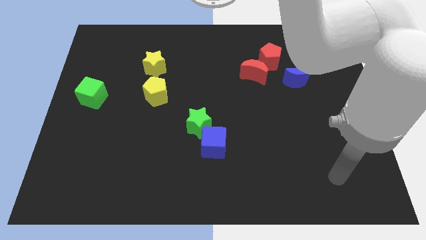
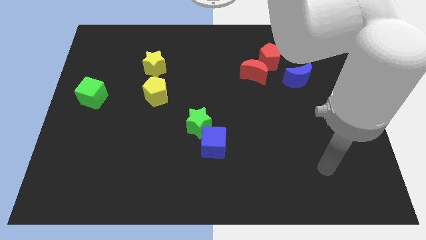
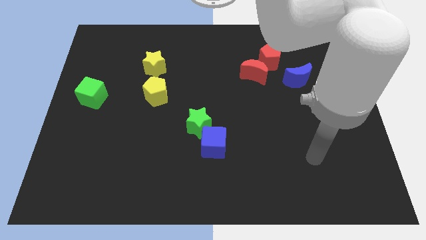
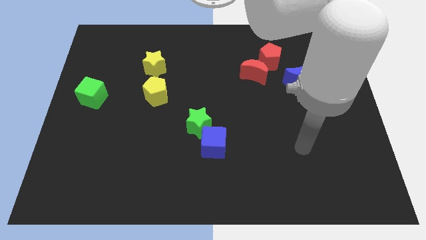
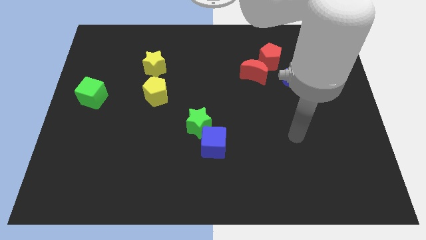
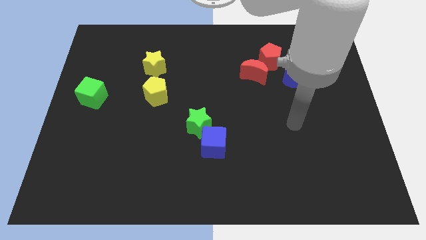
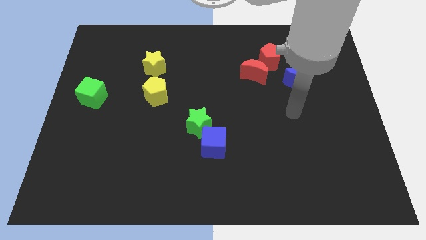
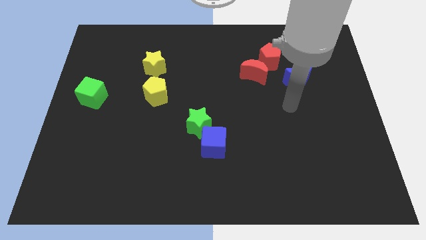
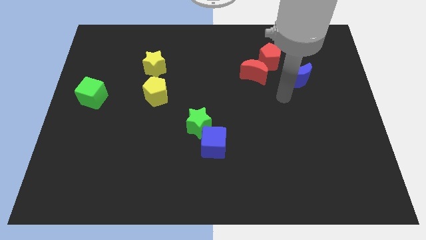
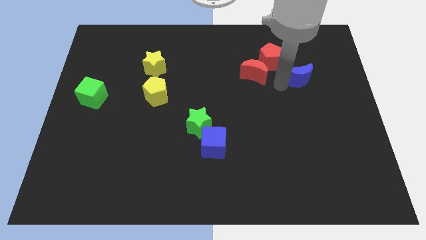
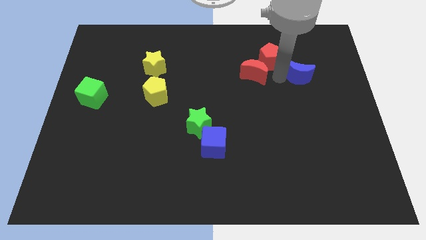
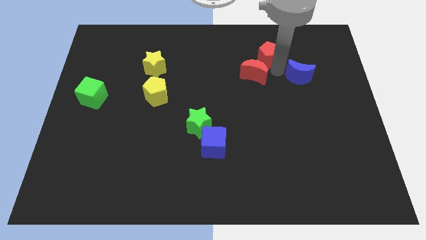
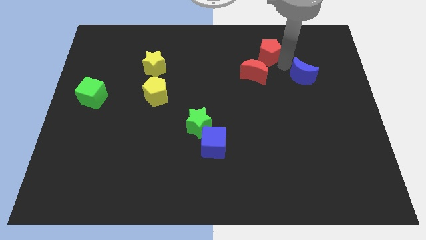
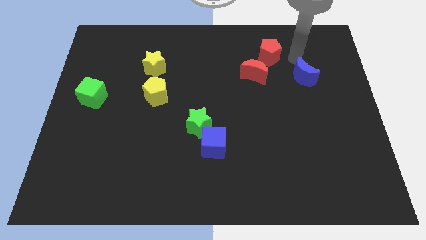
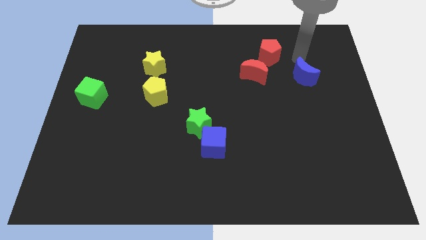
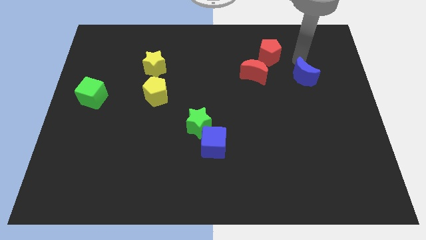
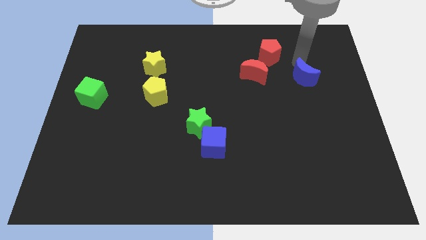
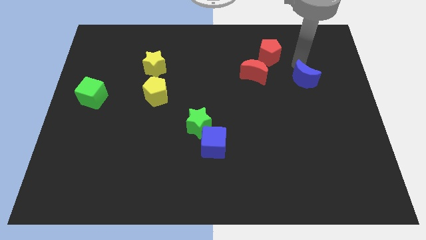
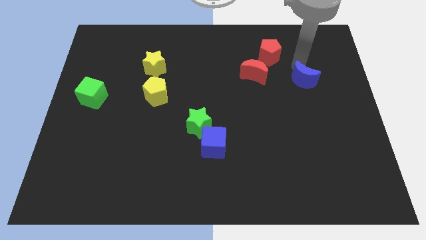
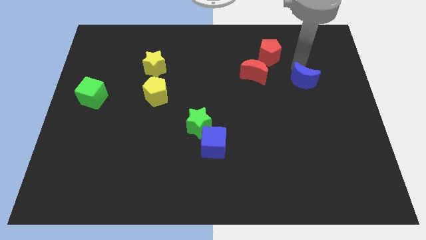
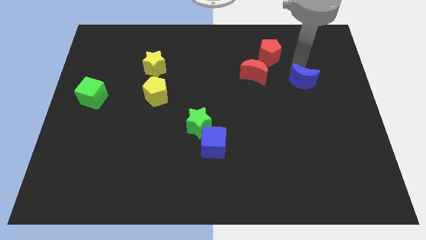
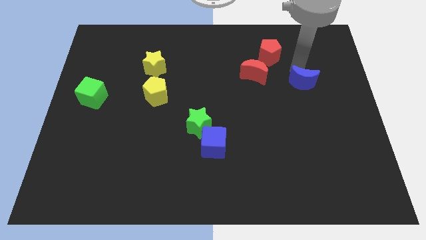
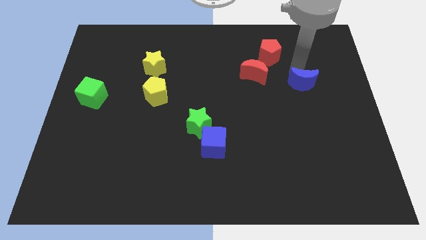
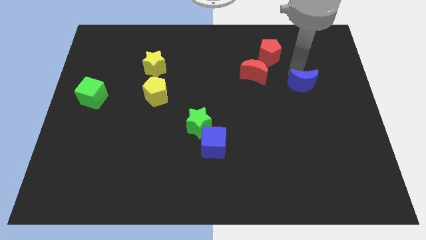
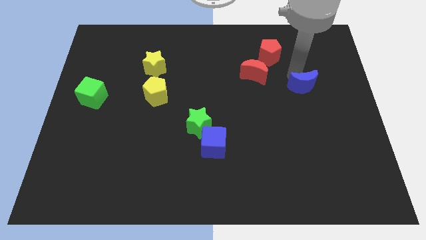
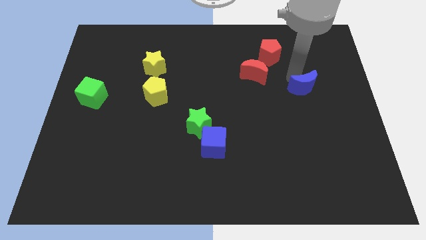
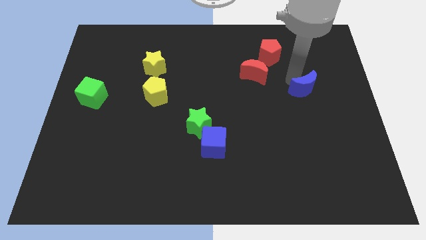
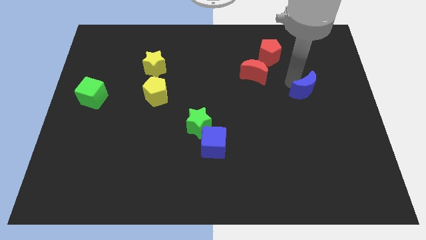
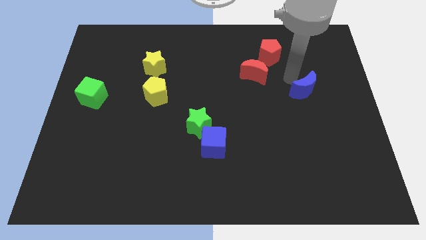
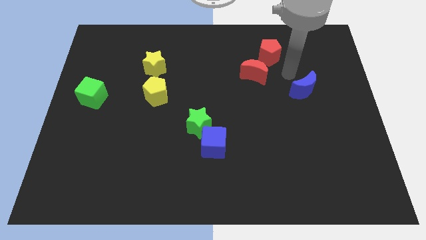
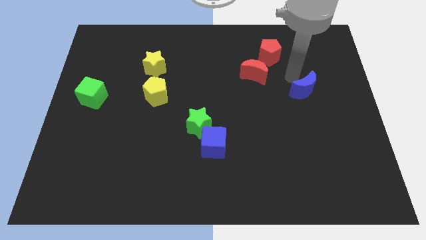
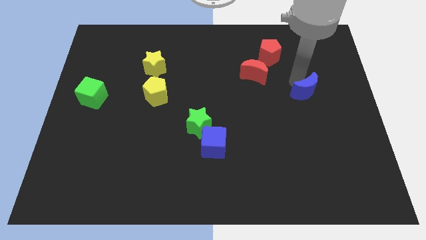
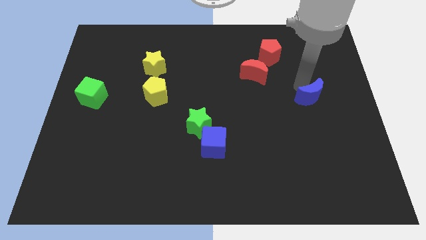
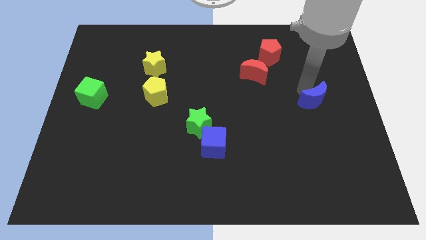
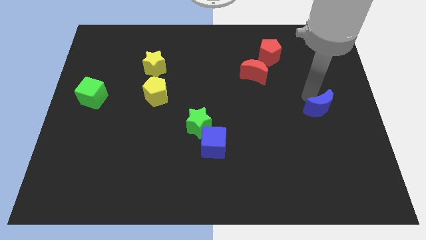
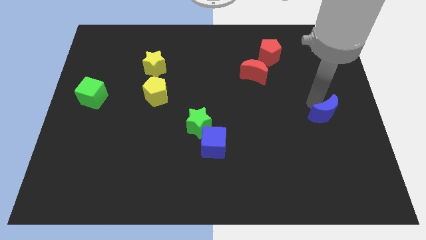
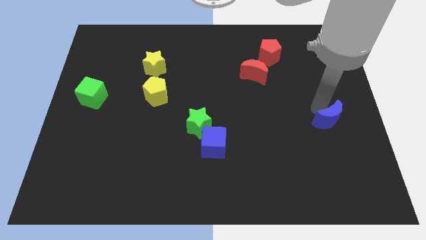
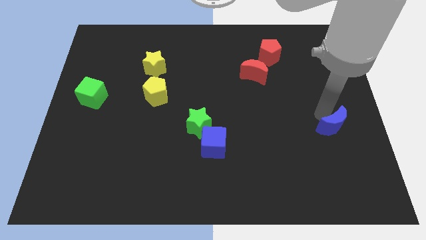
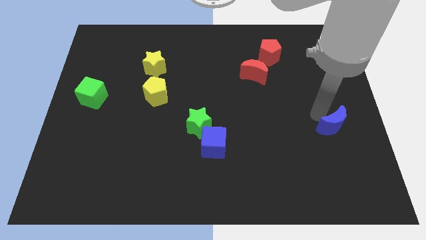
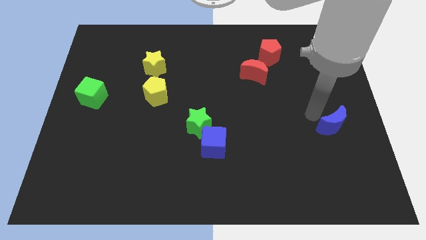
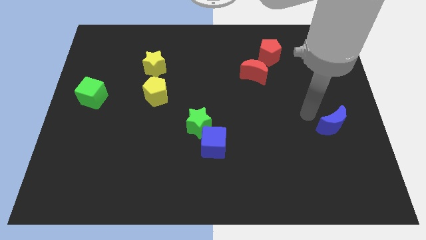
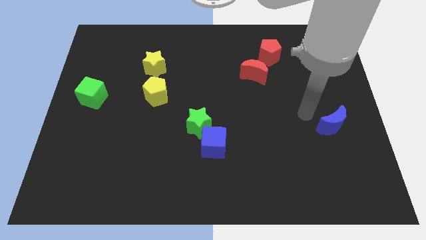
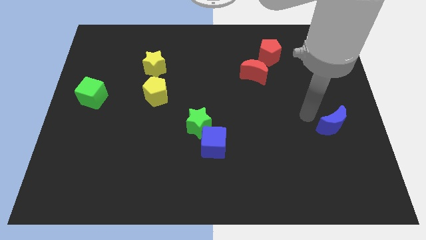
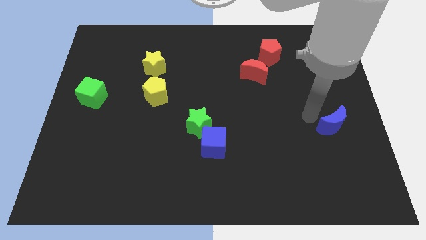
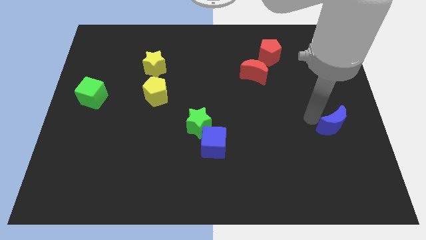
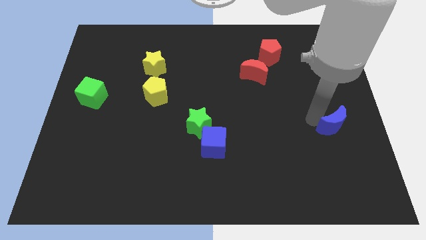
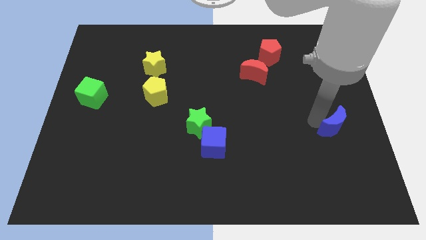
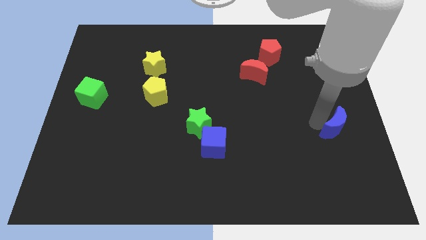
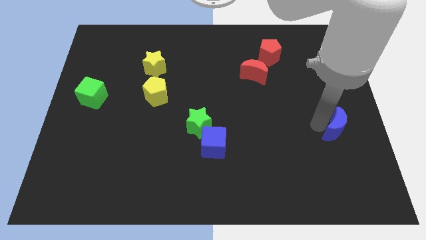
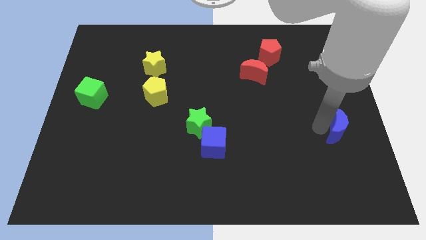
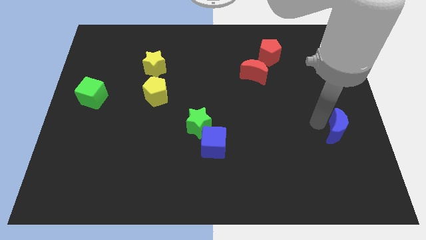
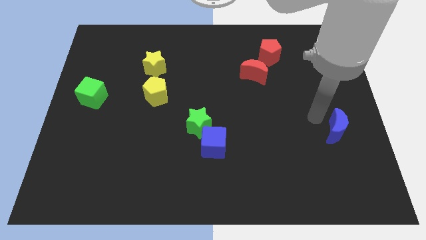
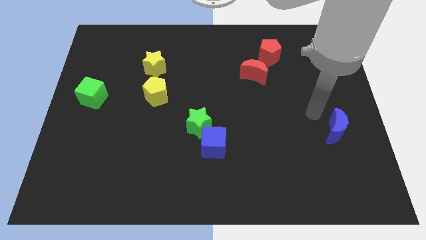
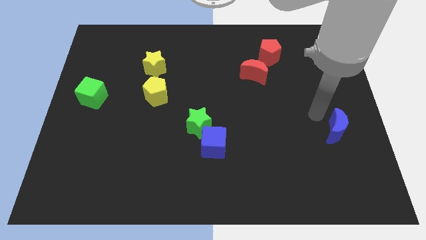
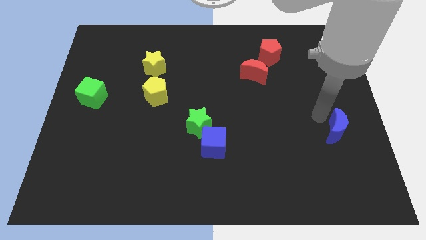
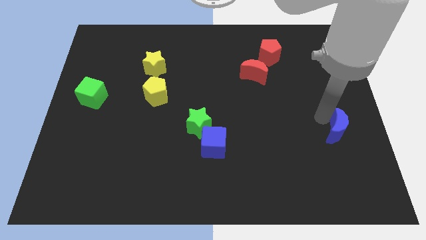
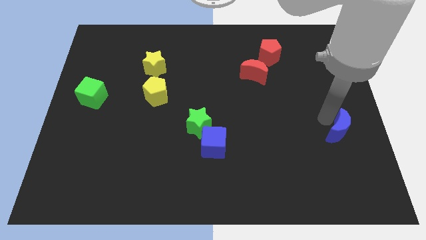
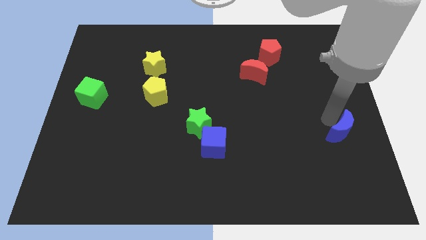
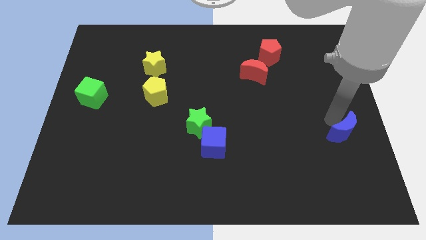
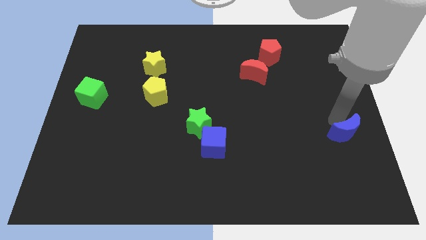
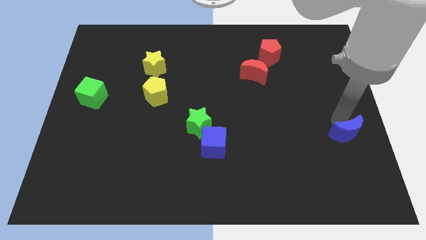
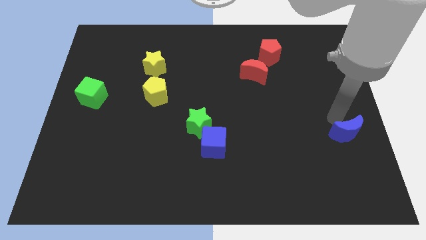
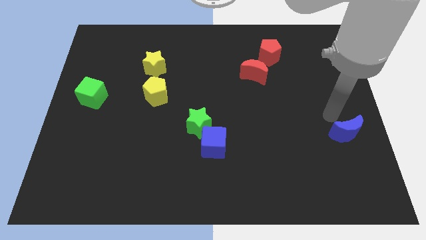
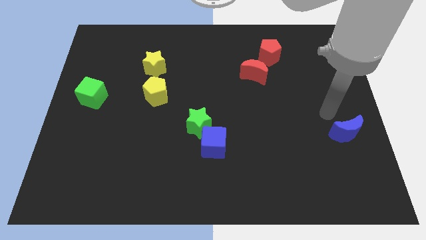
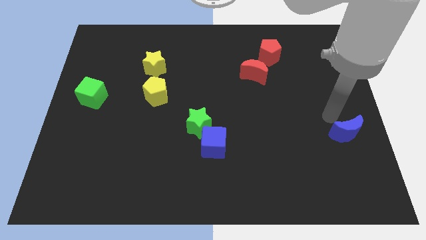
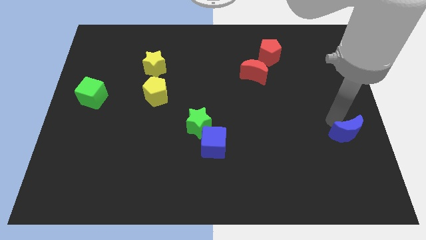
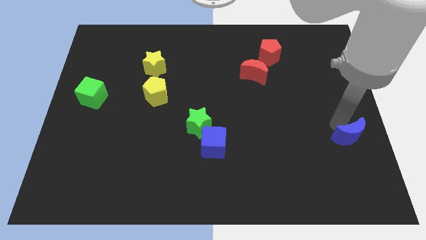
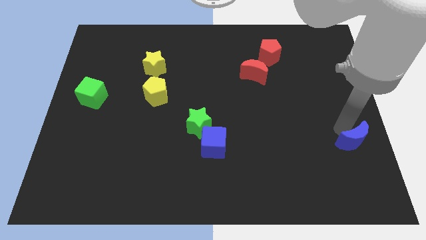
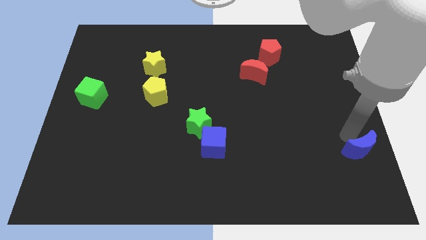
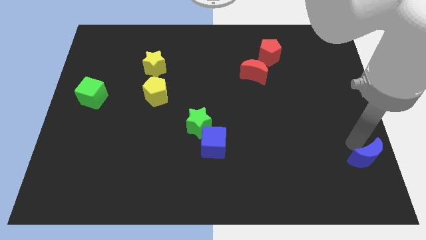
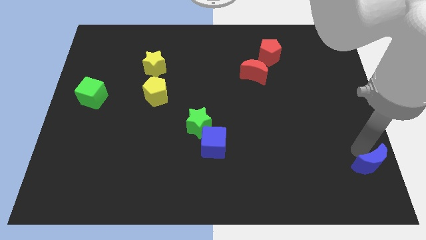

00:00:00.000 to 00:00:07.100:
slide the blue moon to the bottom right
